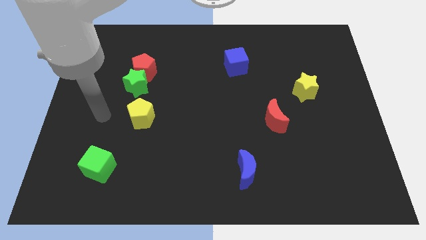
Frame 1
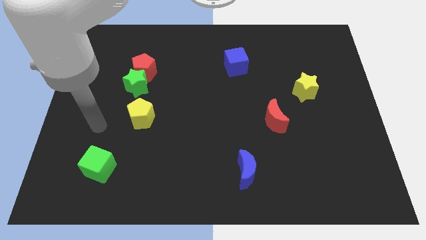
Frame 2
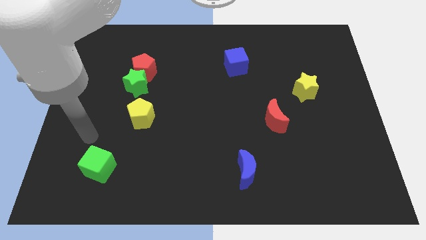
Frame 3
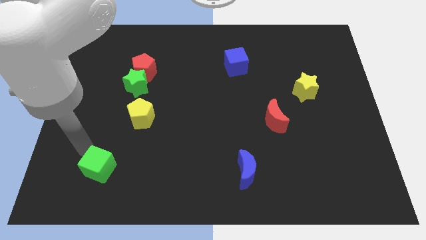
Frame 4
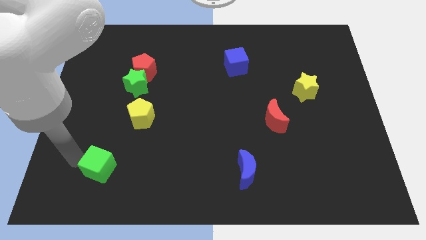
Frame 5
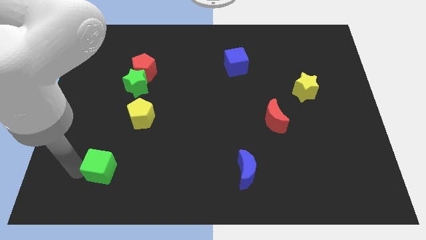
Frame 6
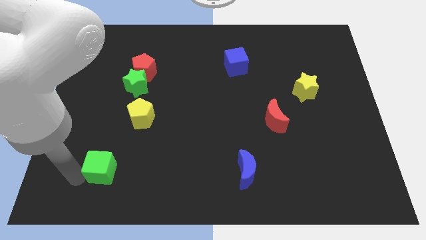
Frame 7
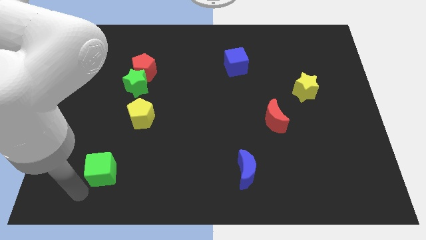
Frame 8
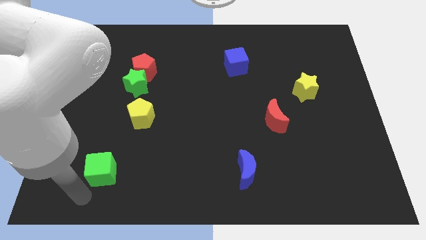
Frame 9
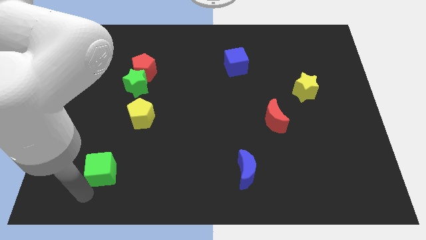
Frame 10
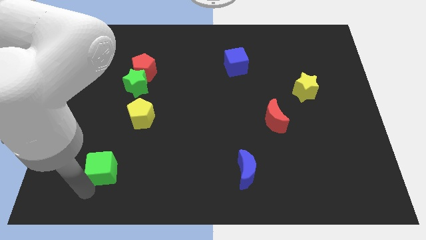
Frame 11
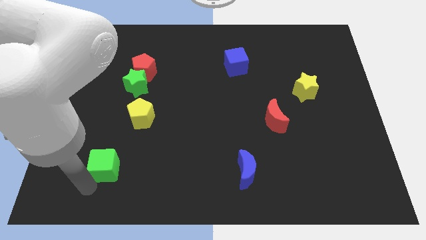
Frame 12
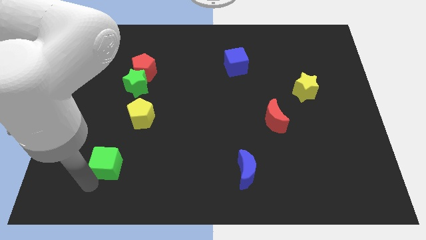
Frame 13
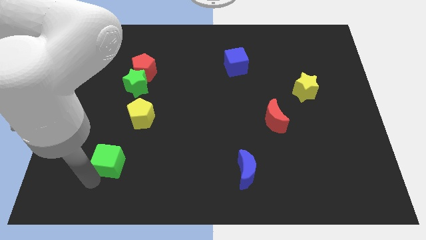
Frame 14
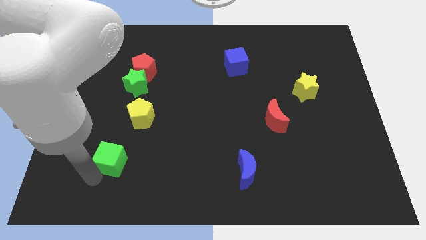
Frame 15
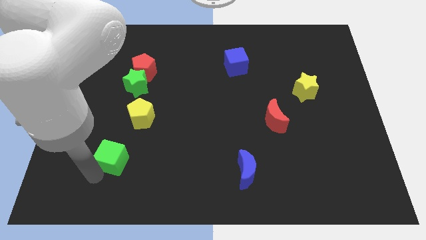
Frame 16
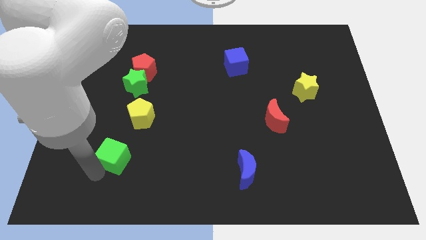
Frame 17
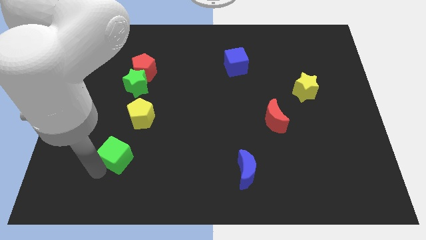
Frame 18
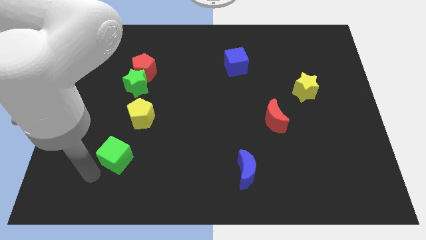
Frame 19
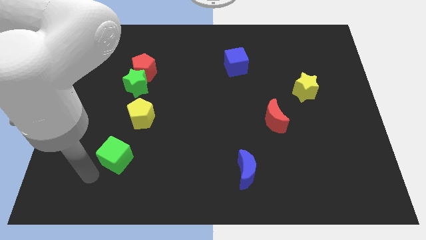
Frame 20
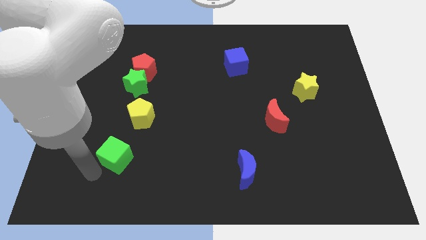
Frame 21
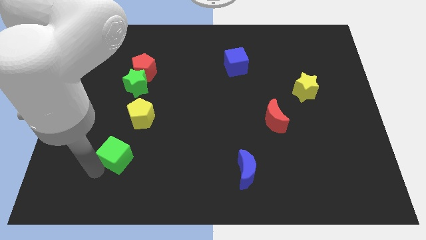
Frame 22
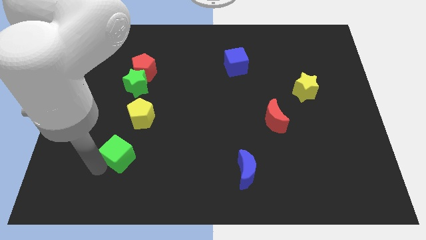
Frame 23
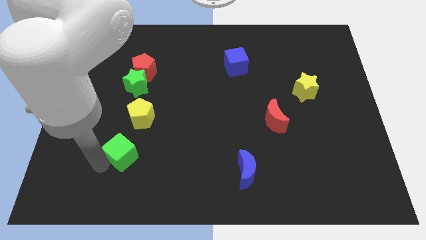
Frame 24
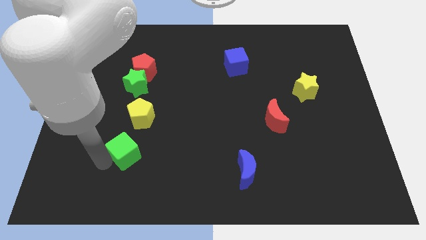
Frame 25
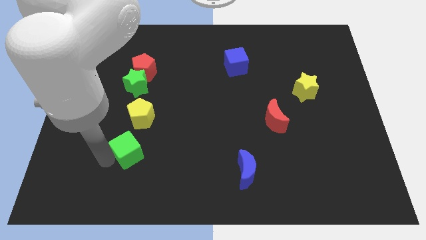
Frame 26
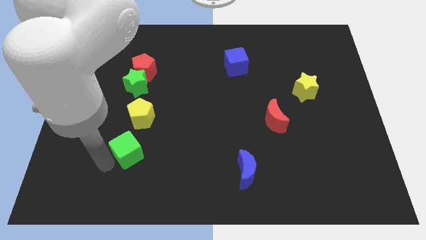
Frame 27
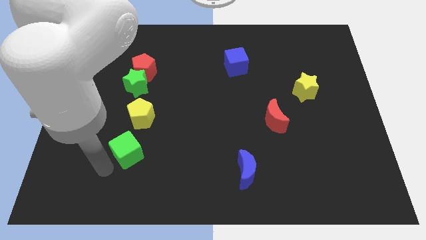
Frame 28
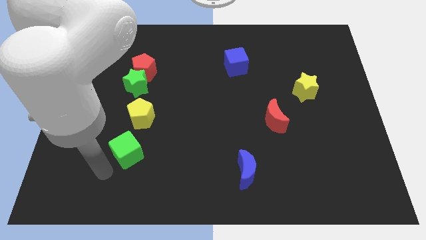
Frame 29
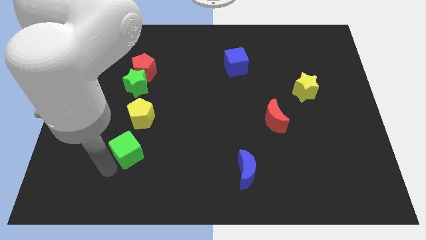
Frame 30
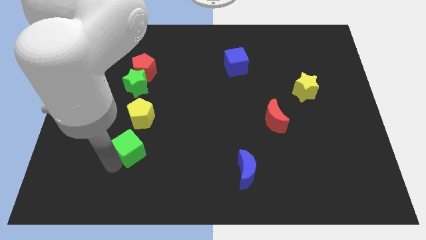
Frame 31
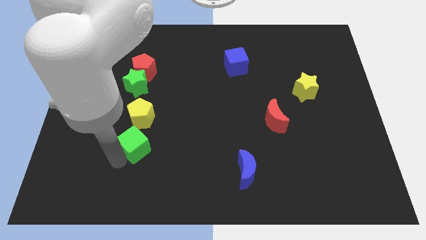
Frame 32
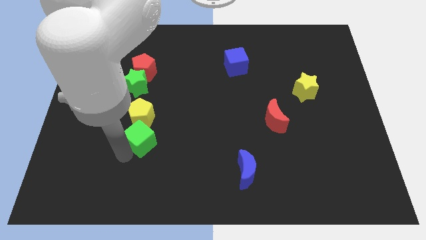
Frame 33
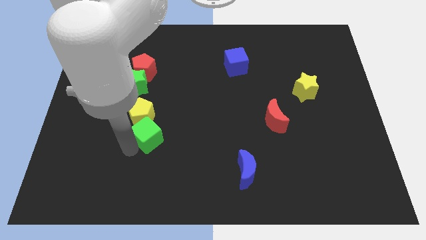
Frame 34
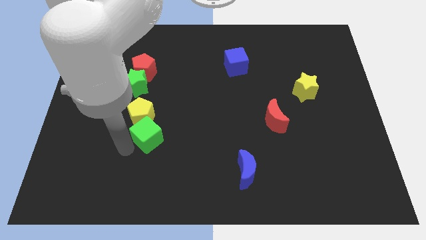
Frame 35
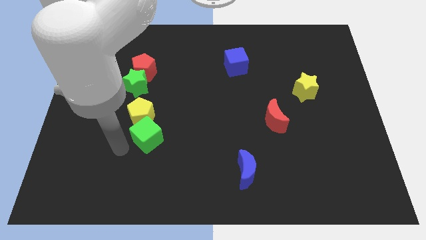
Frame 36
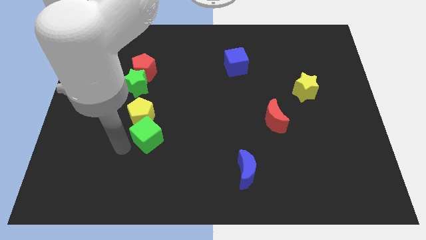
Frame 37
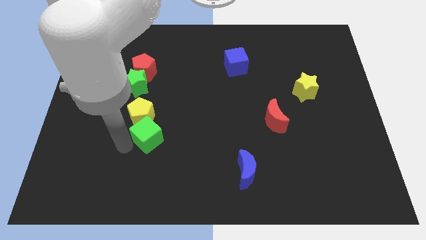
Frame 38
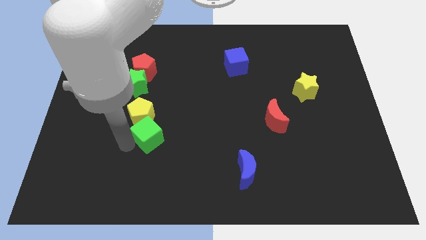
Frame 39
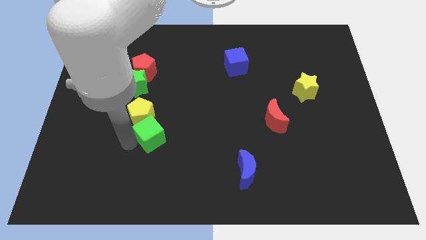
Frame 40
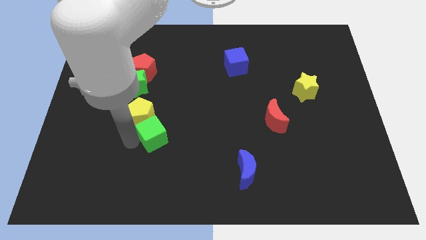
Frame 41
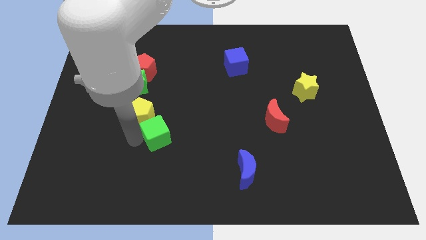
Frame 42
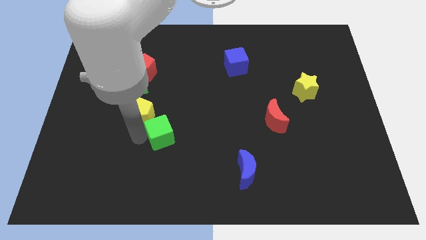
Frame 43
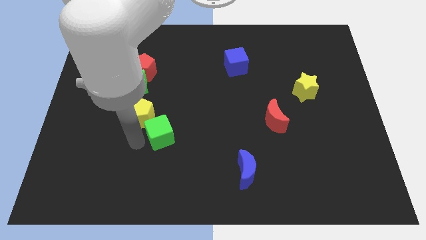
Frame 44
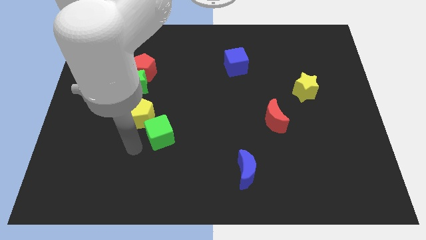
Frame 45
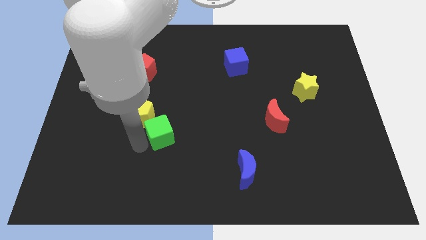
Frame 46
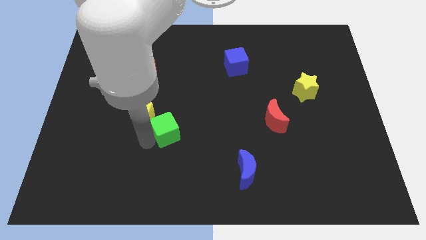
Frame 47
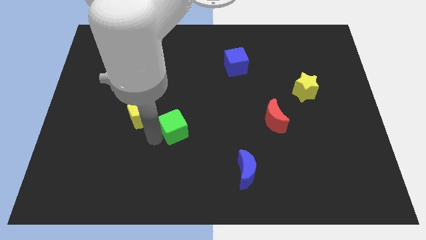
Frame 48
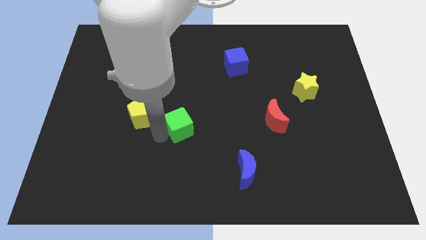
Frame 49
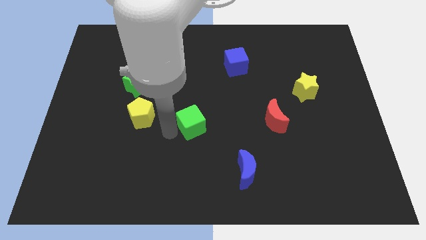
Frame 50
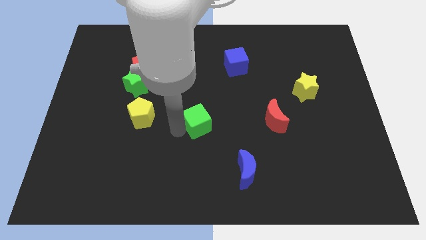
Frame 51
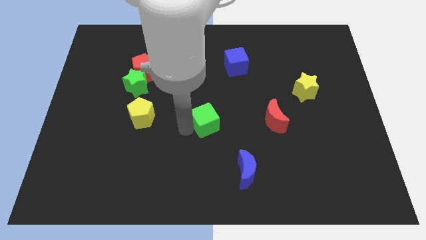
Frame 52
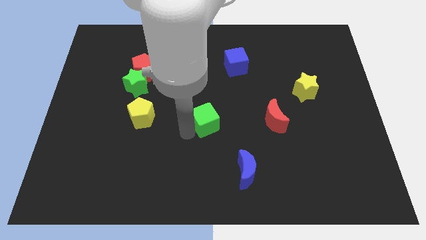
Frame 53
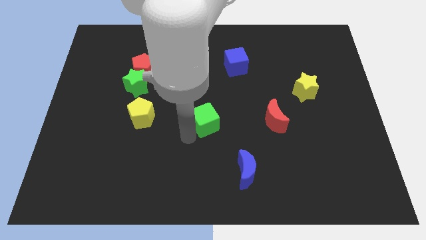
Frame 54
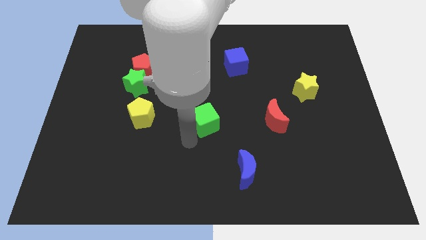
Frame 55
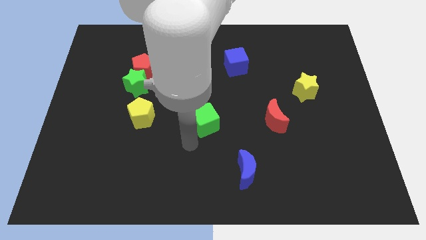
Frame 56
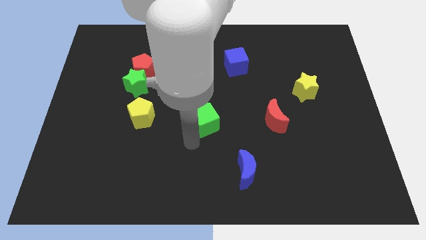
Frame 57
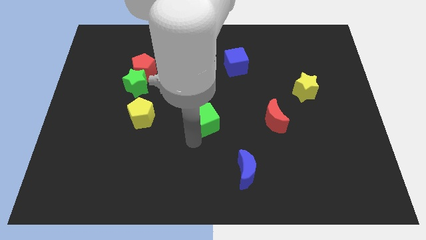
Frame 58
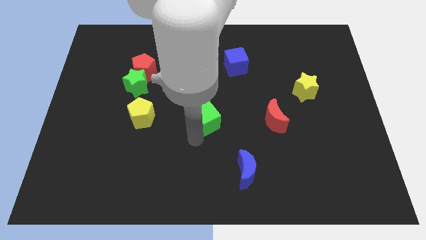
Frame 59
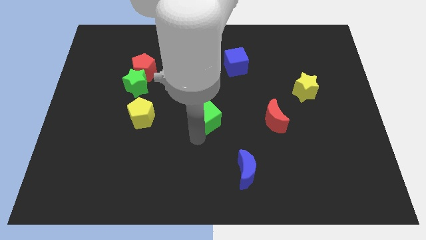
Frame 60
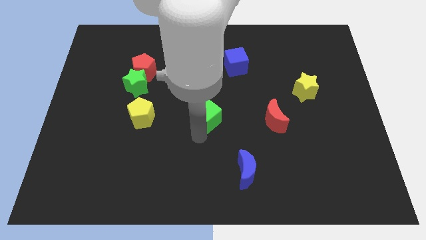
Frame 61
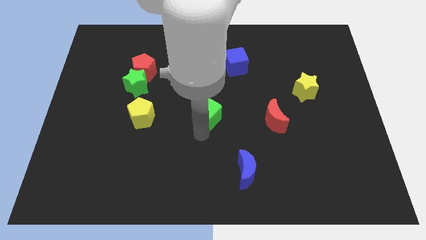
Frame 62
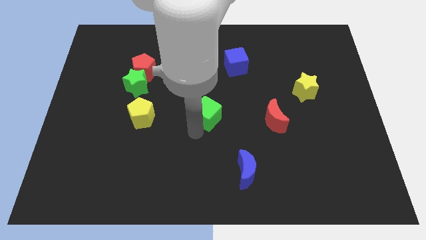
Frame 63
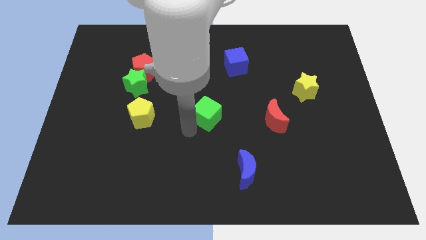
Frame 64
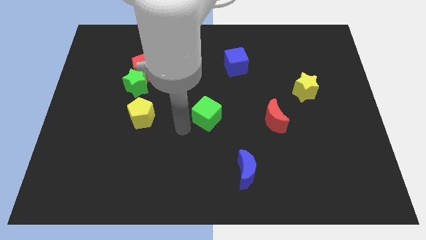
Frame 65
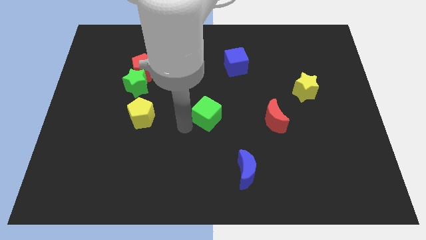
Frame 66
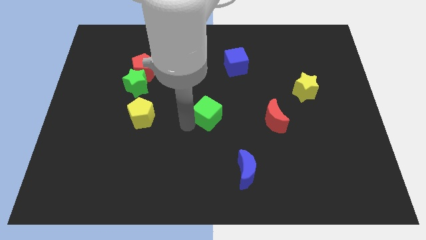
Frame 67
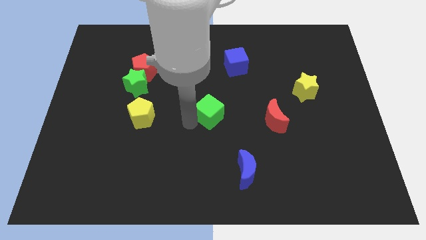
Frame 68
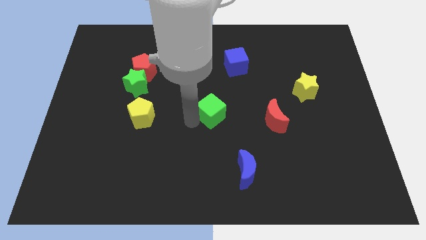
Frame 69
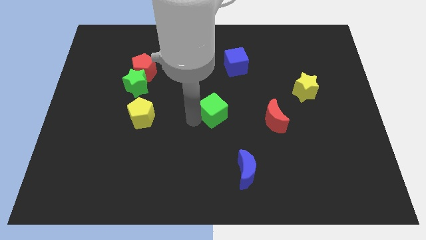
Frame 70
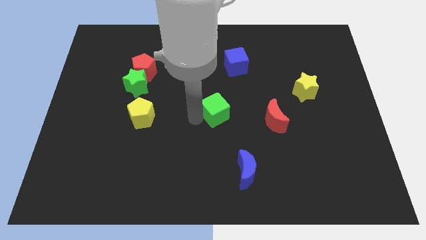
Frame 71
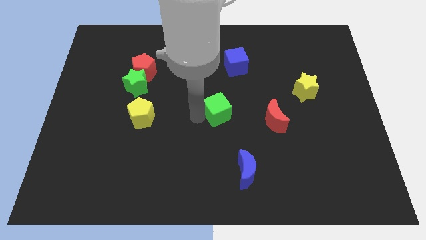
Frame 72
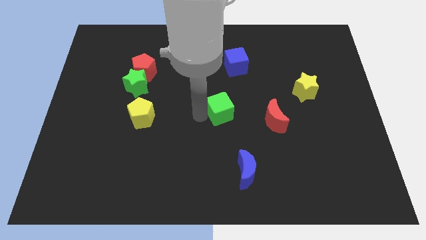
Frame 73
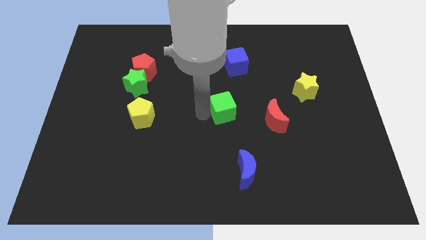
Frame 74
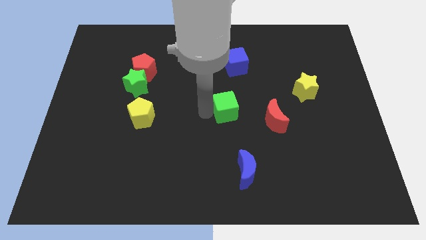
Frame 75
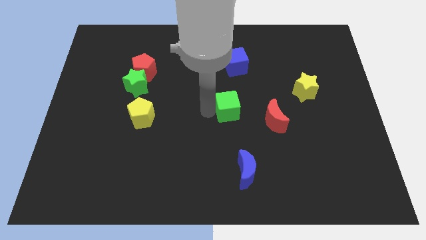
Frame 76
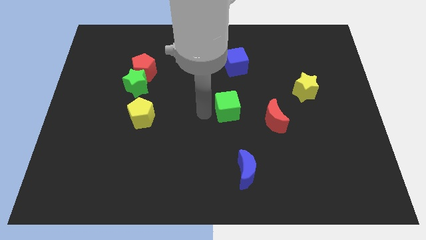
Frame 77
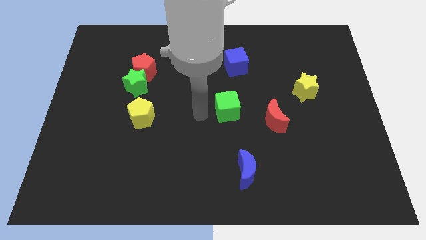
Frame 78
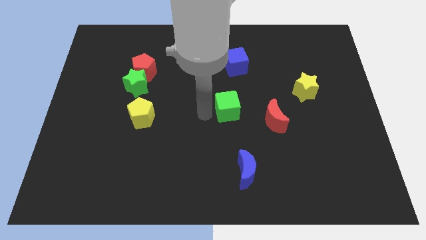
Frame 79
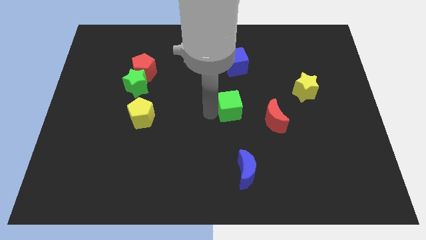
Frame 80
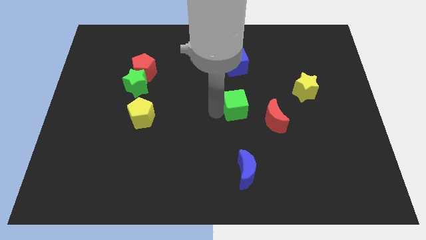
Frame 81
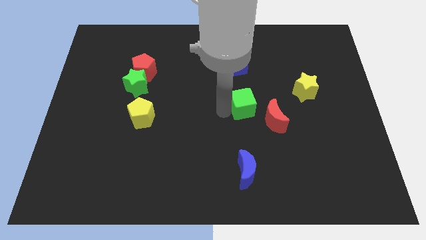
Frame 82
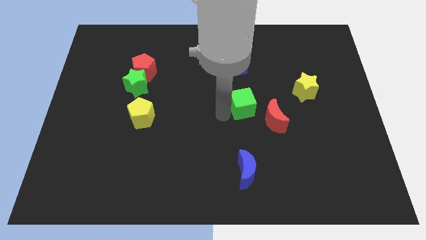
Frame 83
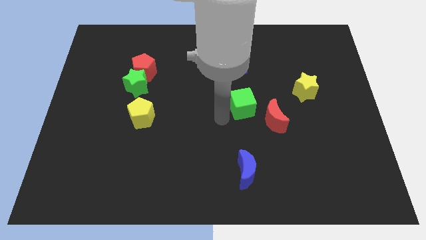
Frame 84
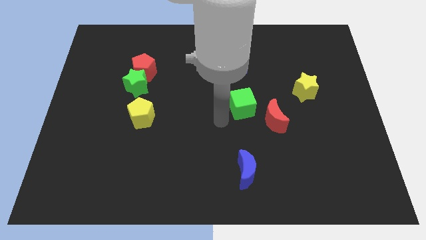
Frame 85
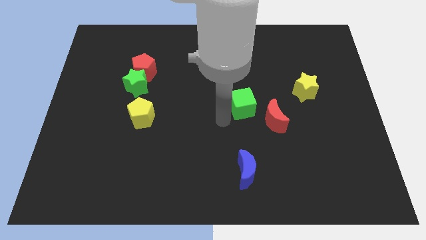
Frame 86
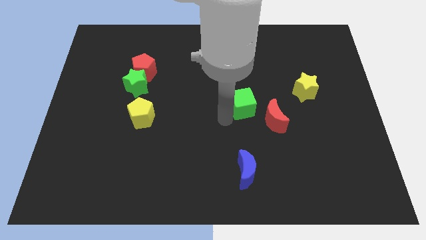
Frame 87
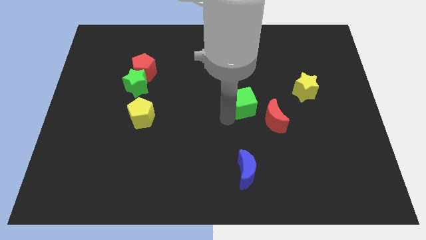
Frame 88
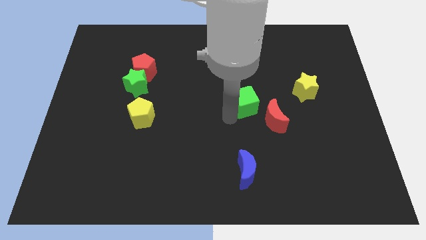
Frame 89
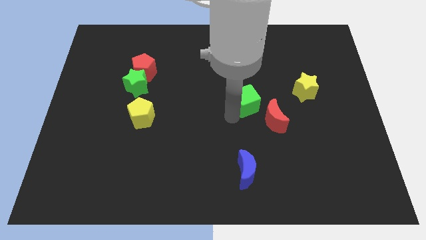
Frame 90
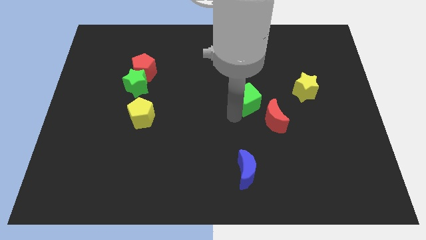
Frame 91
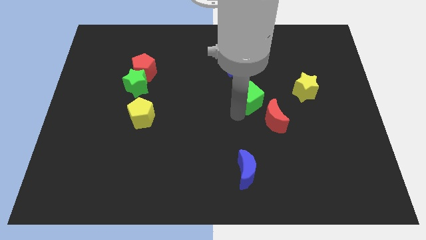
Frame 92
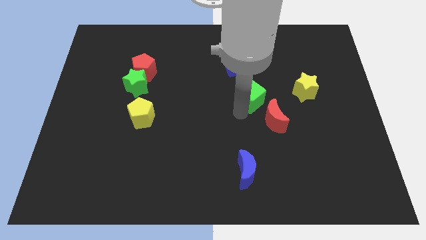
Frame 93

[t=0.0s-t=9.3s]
push the green cube above the red moon
